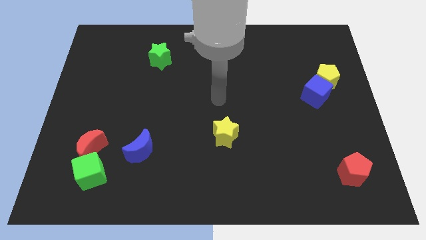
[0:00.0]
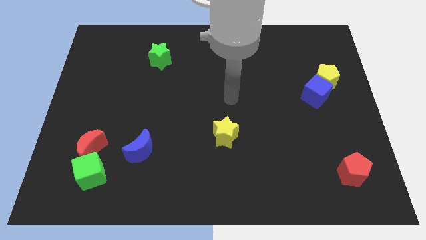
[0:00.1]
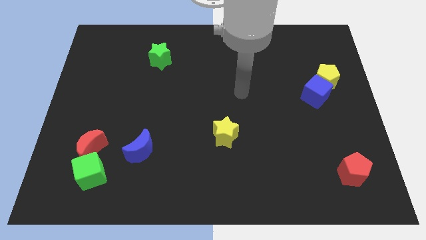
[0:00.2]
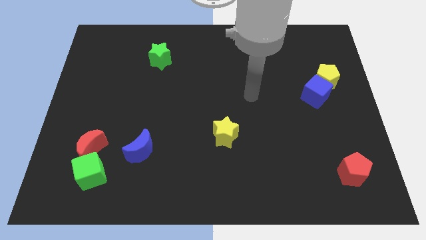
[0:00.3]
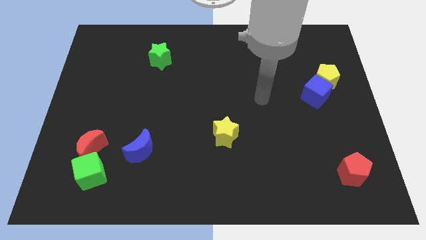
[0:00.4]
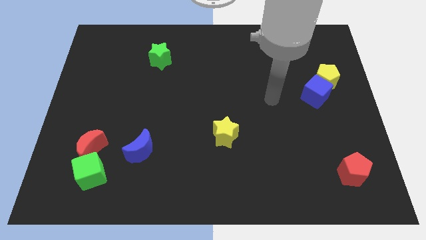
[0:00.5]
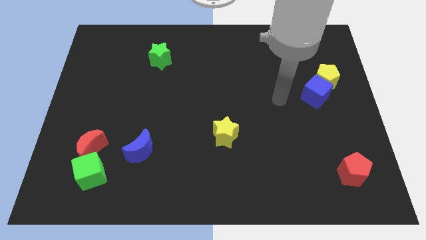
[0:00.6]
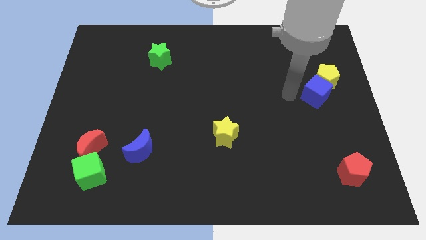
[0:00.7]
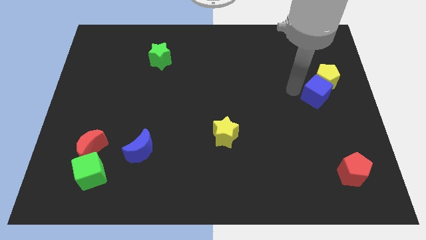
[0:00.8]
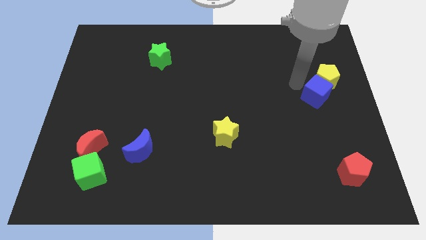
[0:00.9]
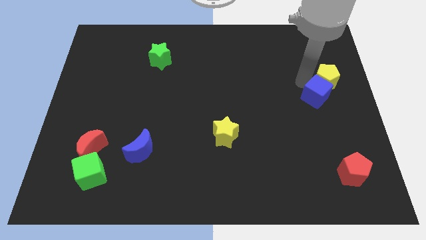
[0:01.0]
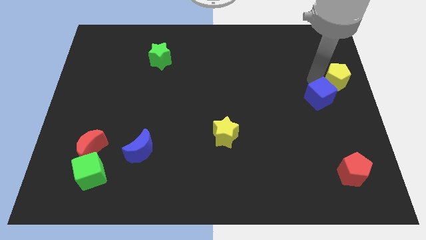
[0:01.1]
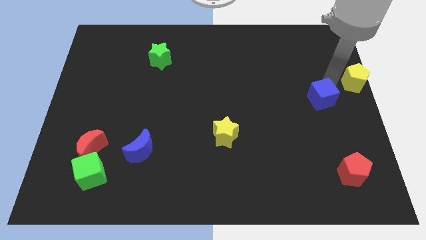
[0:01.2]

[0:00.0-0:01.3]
move the blue cube away from the yellow pentagon

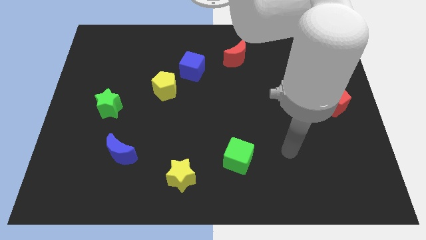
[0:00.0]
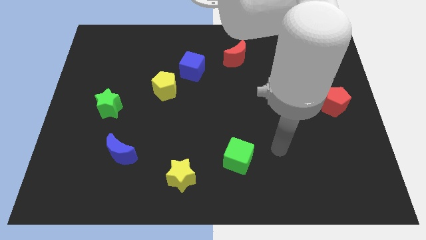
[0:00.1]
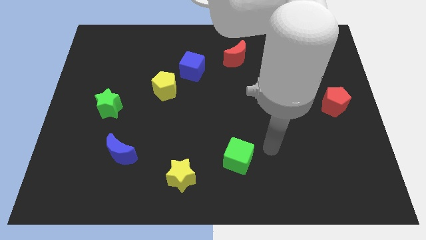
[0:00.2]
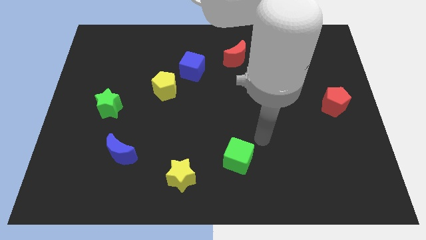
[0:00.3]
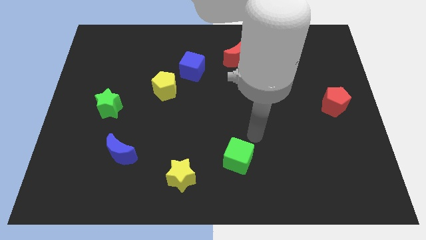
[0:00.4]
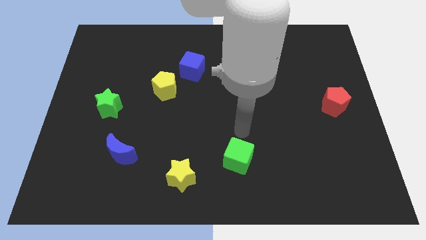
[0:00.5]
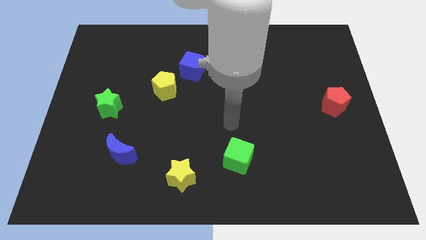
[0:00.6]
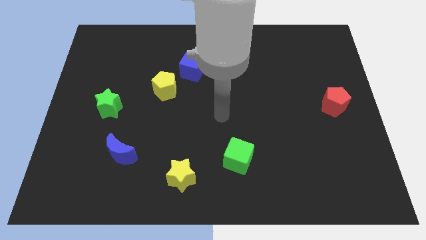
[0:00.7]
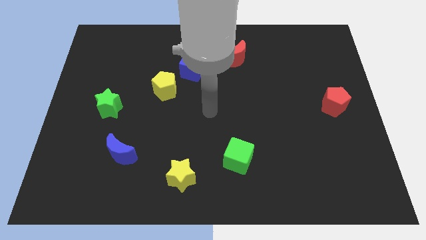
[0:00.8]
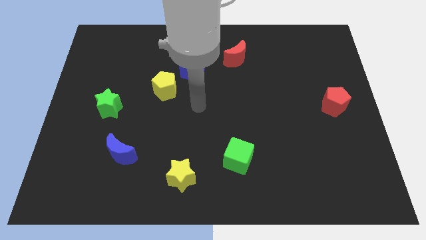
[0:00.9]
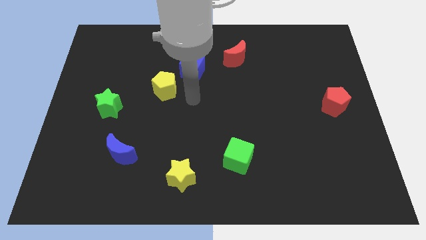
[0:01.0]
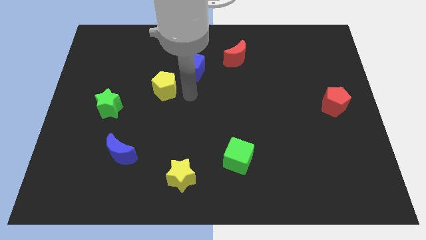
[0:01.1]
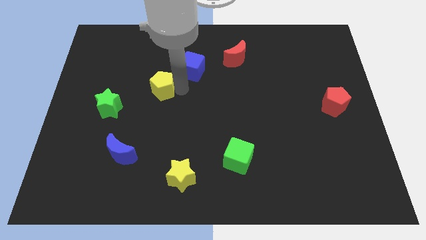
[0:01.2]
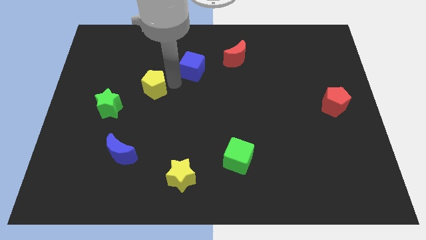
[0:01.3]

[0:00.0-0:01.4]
separate the blue cube from the yellow pentagon

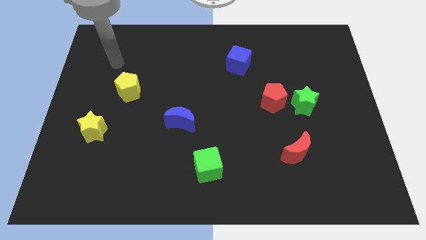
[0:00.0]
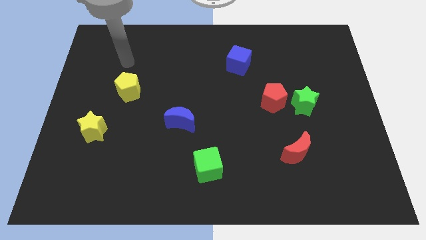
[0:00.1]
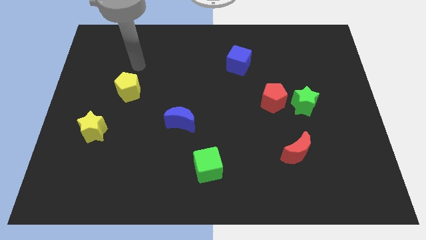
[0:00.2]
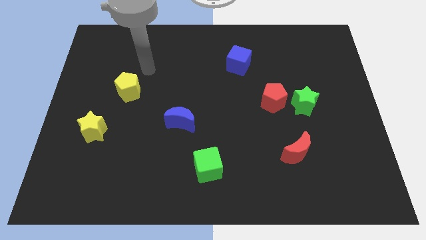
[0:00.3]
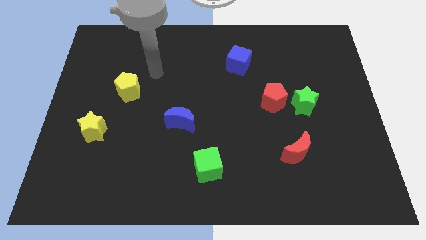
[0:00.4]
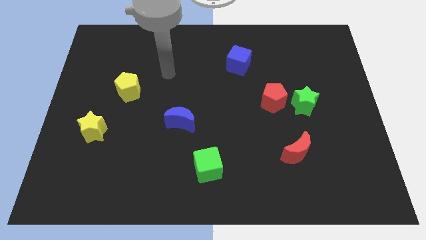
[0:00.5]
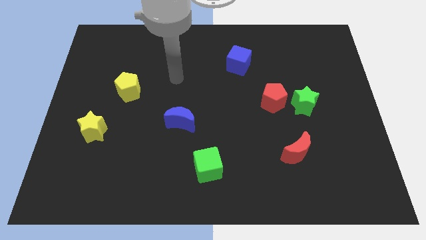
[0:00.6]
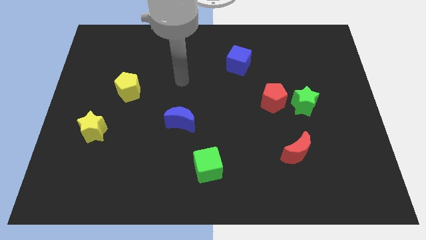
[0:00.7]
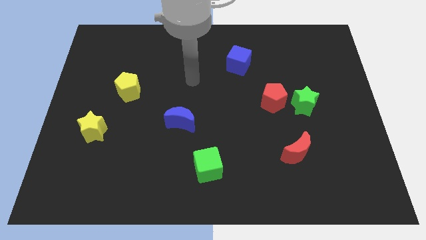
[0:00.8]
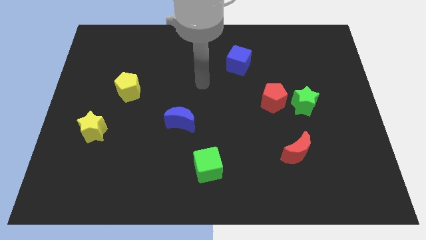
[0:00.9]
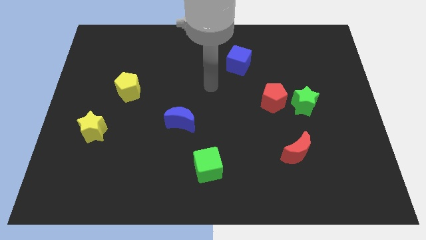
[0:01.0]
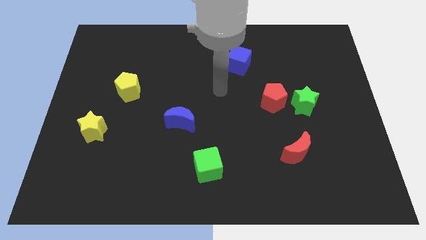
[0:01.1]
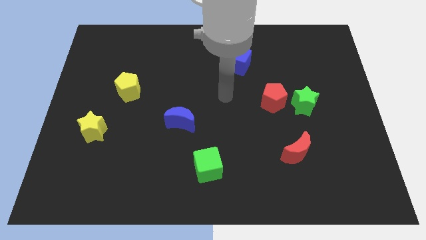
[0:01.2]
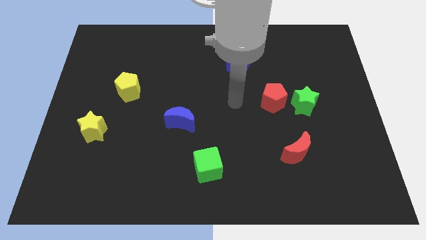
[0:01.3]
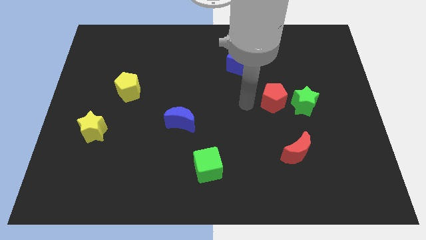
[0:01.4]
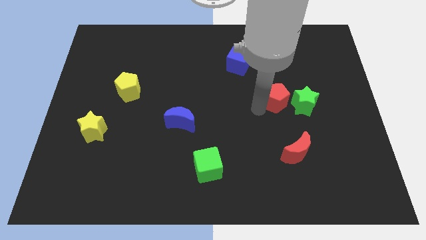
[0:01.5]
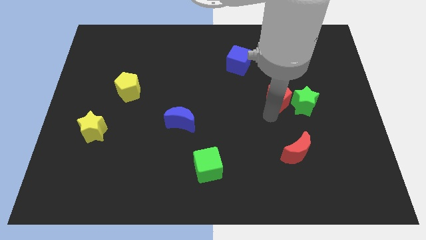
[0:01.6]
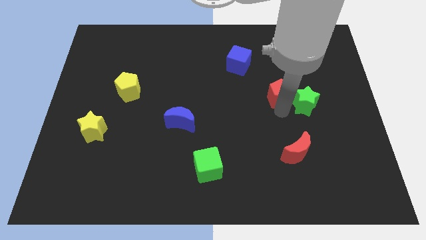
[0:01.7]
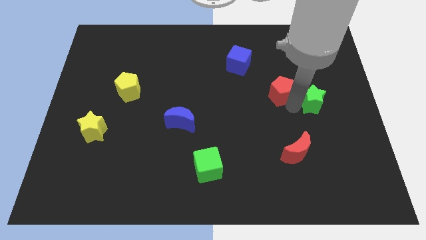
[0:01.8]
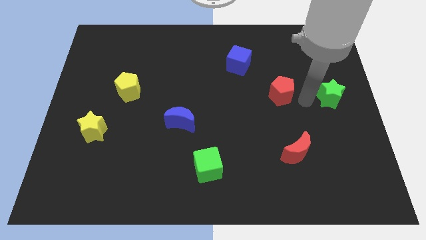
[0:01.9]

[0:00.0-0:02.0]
move the red pentagon away from the green star

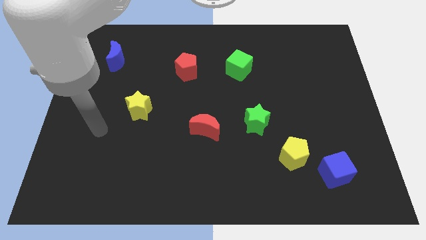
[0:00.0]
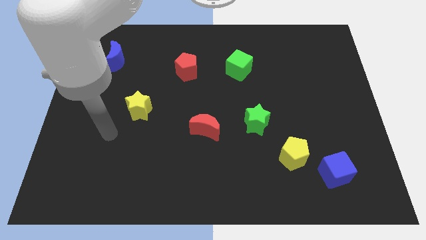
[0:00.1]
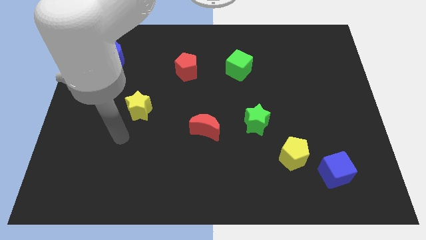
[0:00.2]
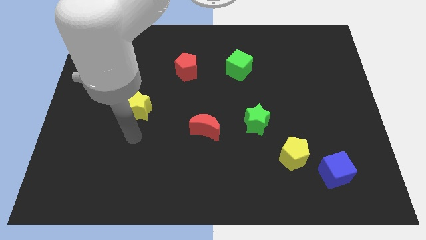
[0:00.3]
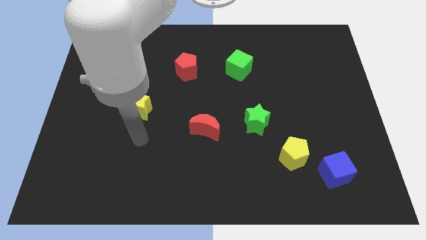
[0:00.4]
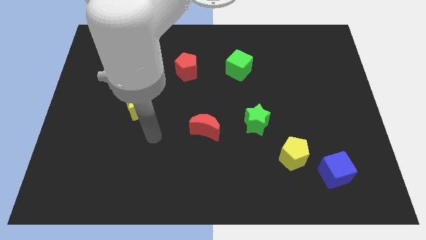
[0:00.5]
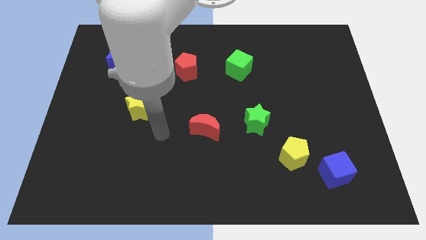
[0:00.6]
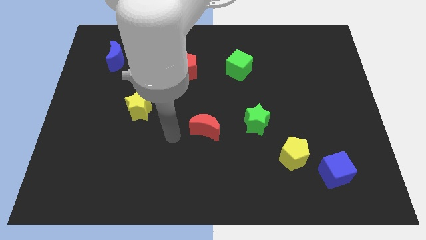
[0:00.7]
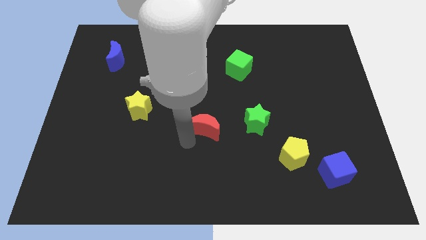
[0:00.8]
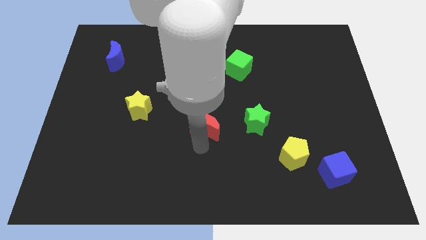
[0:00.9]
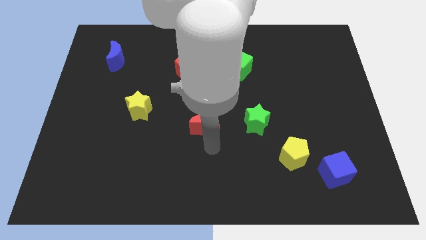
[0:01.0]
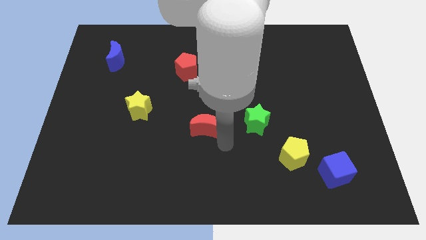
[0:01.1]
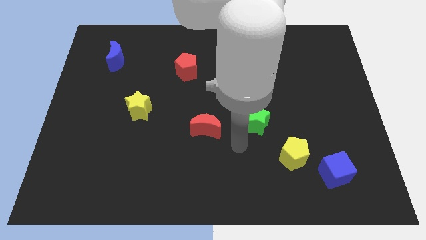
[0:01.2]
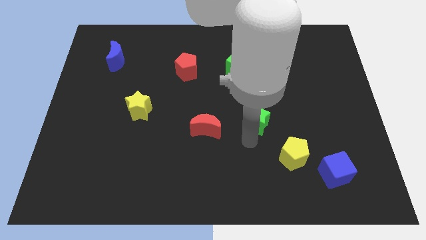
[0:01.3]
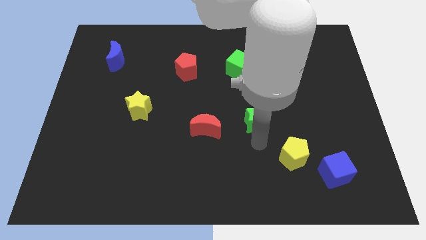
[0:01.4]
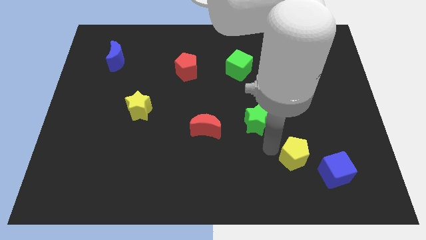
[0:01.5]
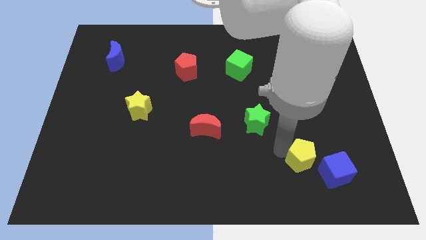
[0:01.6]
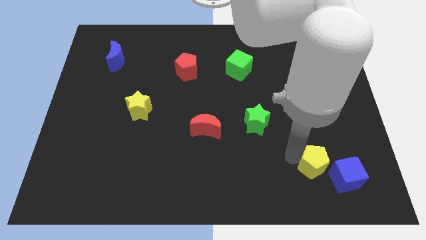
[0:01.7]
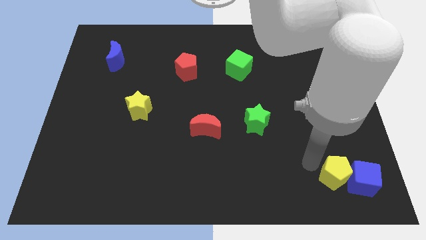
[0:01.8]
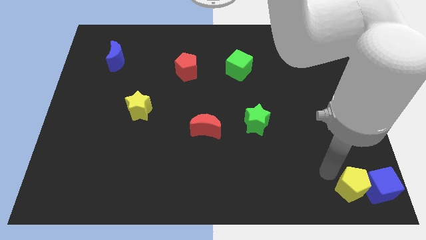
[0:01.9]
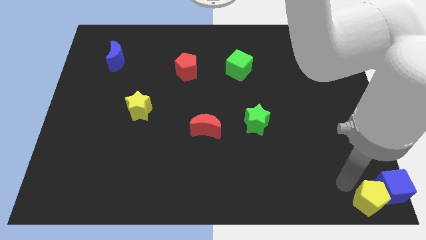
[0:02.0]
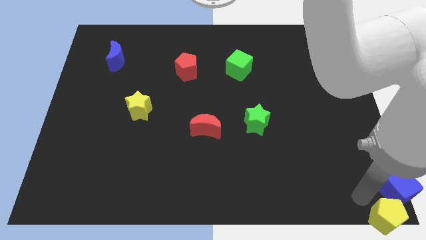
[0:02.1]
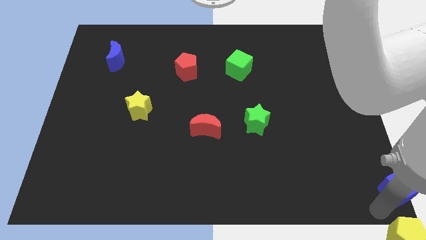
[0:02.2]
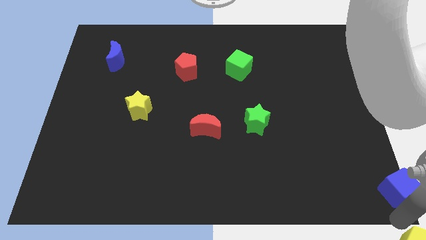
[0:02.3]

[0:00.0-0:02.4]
pull the blue cube apart from the yellow pentagon

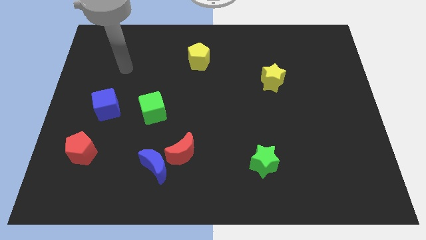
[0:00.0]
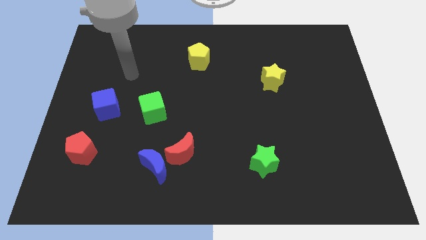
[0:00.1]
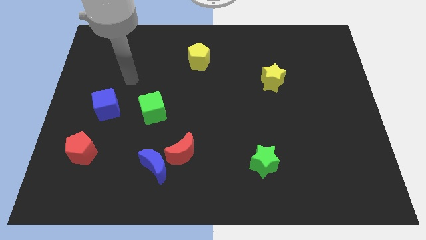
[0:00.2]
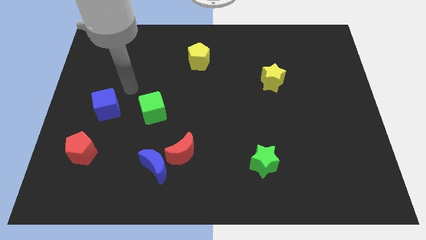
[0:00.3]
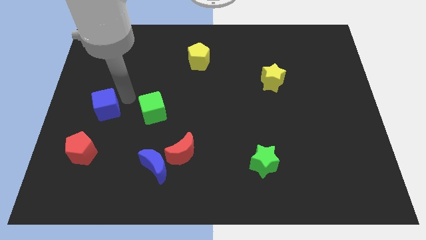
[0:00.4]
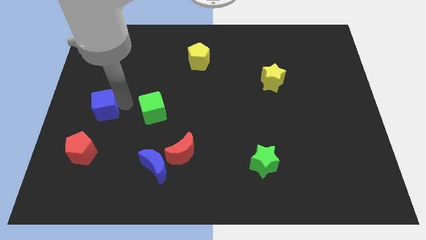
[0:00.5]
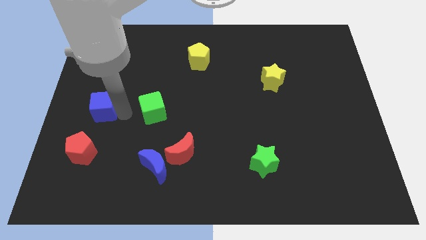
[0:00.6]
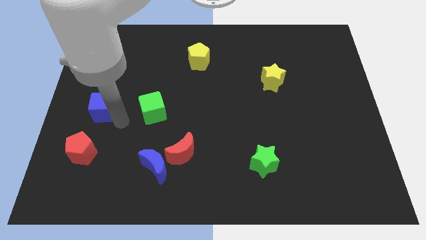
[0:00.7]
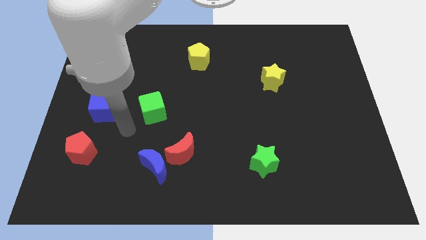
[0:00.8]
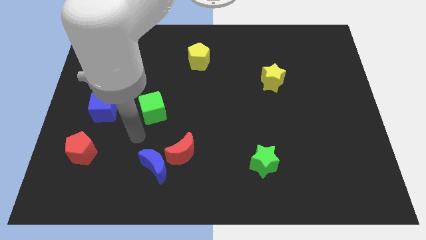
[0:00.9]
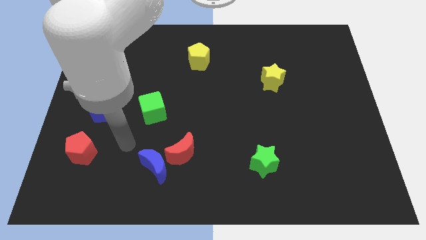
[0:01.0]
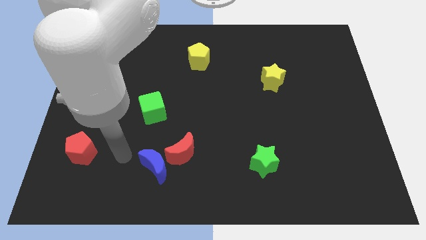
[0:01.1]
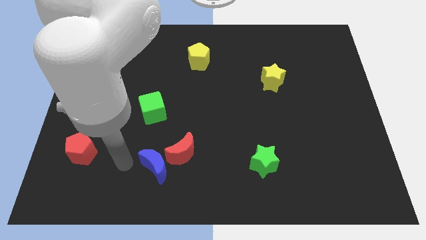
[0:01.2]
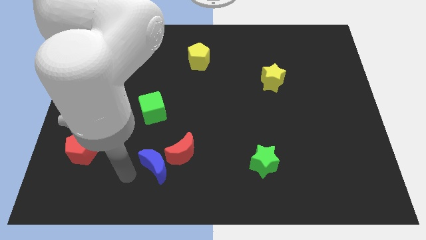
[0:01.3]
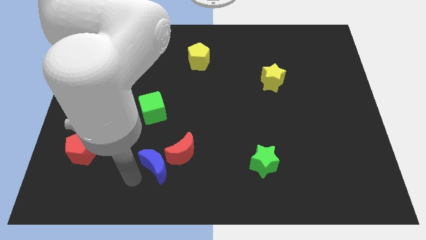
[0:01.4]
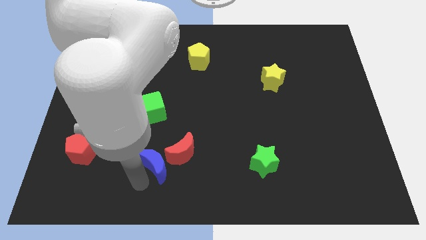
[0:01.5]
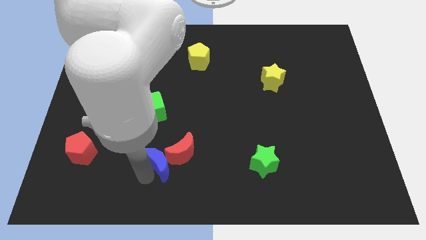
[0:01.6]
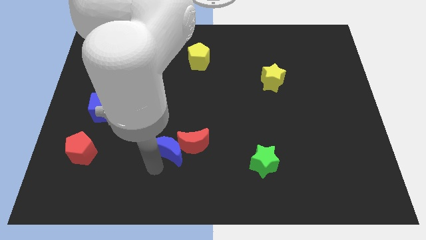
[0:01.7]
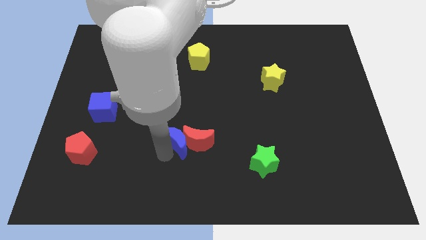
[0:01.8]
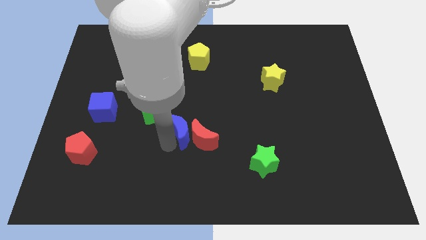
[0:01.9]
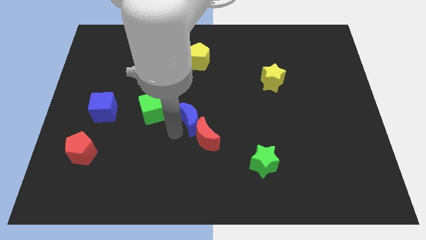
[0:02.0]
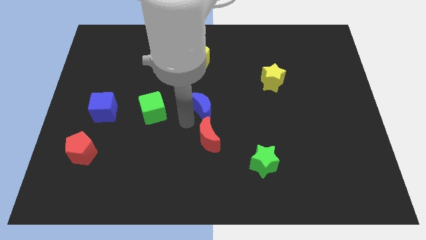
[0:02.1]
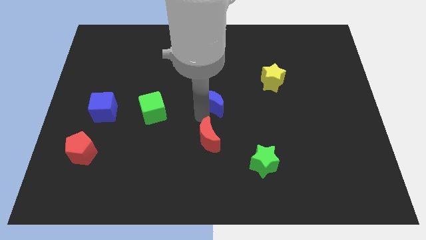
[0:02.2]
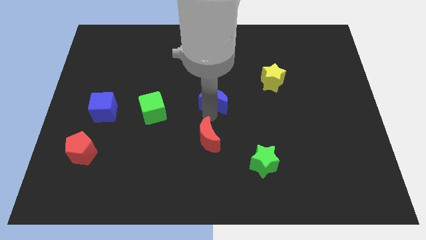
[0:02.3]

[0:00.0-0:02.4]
pull the red moon apart from the blue moon
